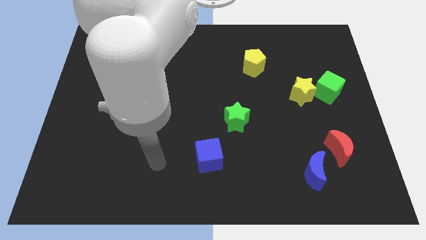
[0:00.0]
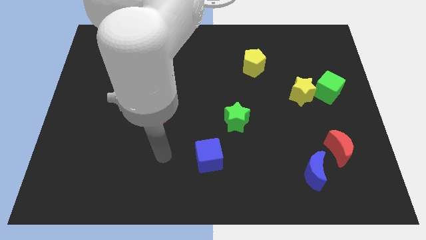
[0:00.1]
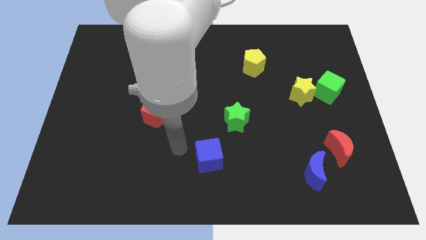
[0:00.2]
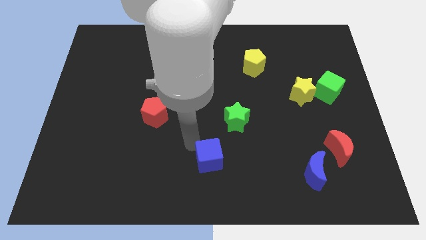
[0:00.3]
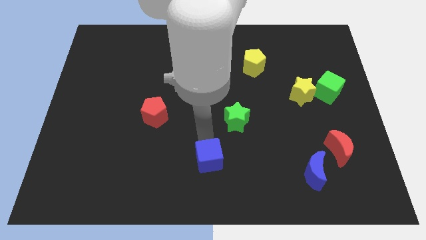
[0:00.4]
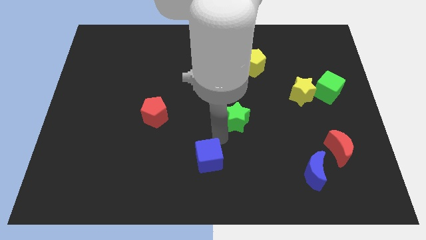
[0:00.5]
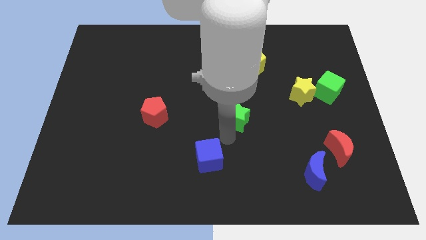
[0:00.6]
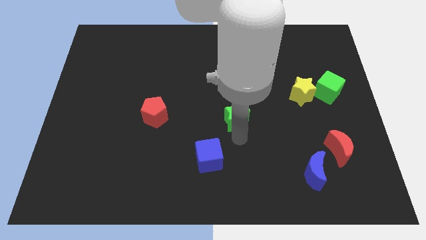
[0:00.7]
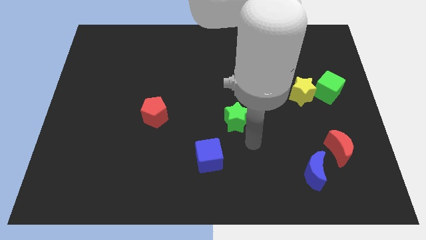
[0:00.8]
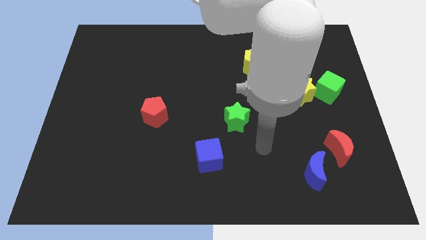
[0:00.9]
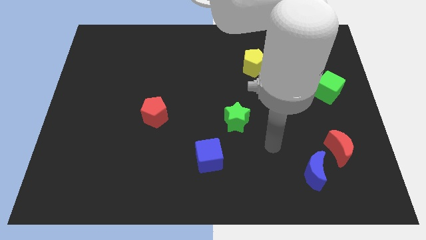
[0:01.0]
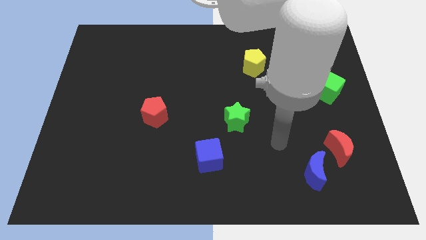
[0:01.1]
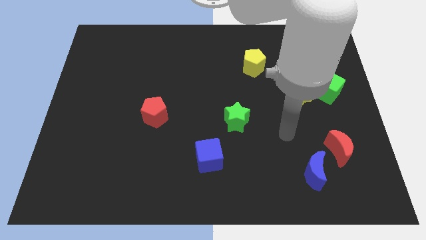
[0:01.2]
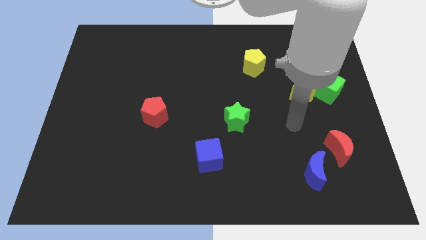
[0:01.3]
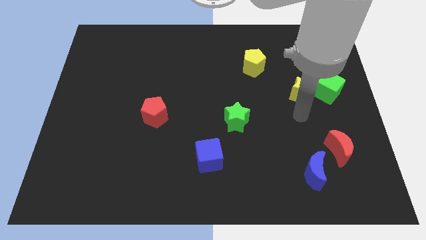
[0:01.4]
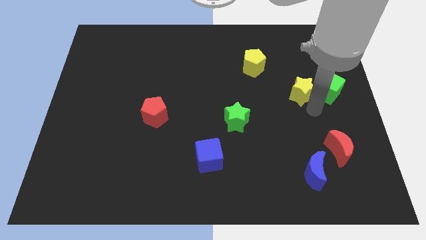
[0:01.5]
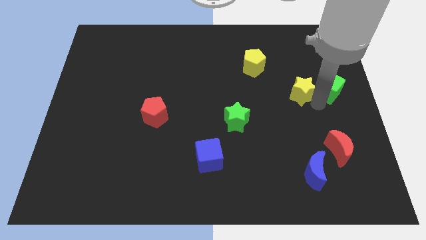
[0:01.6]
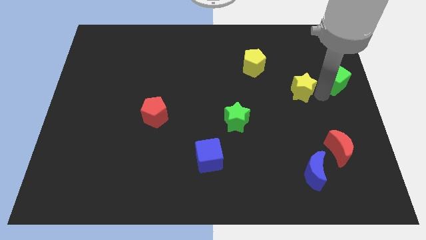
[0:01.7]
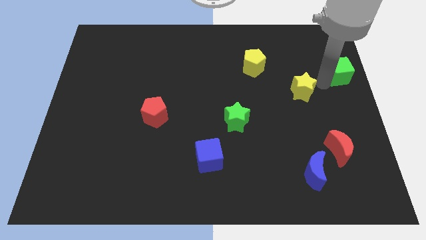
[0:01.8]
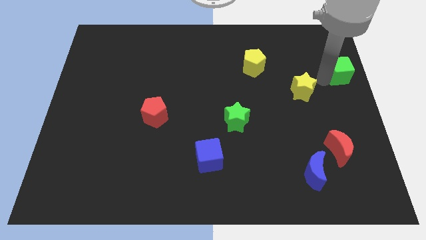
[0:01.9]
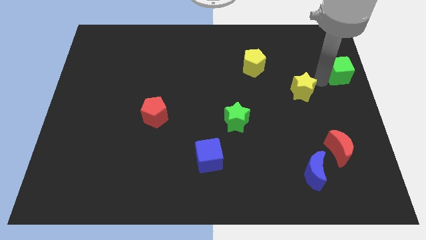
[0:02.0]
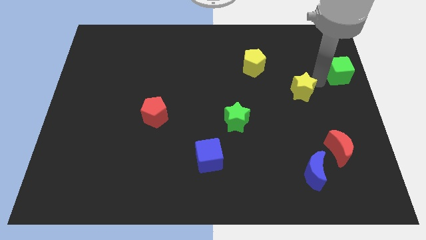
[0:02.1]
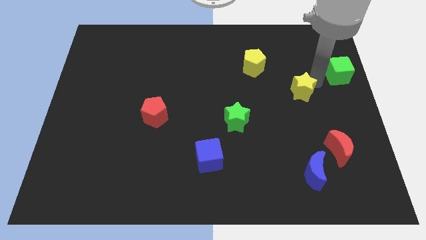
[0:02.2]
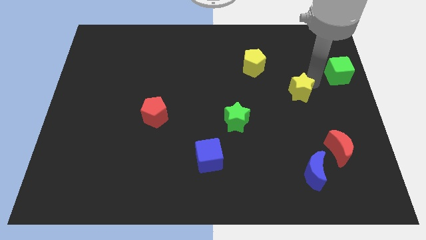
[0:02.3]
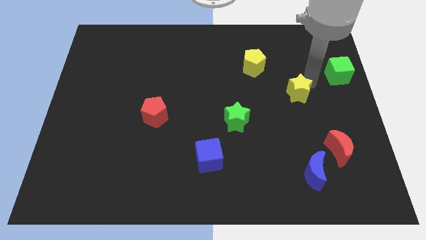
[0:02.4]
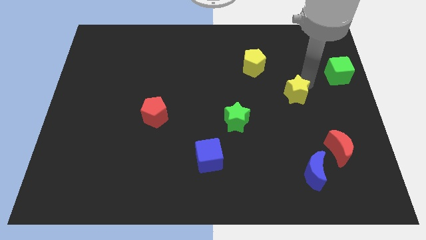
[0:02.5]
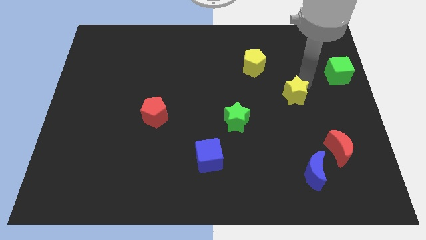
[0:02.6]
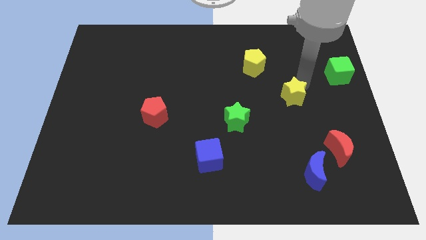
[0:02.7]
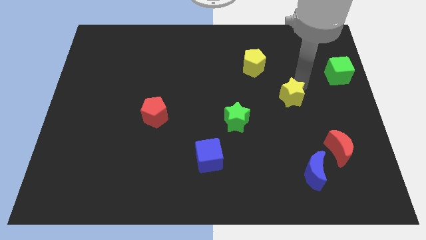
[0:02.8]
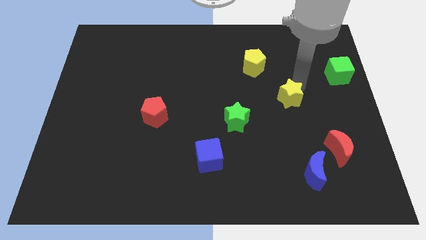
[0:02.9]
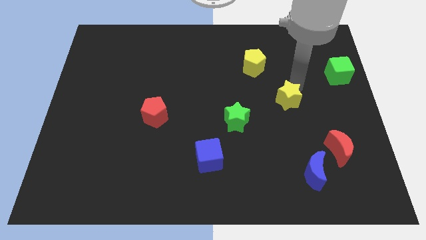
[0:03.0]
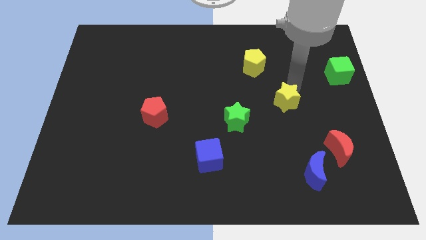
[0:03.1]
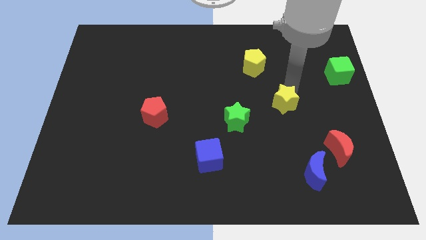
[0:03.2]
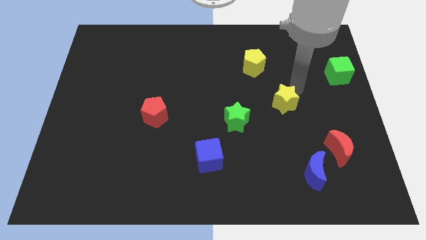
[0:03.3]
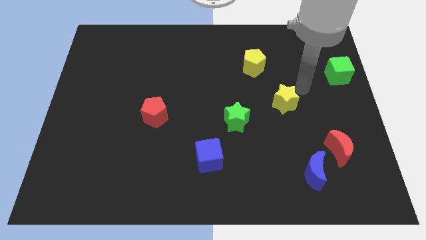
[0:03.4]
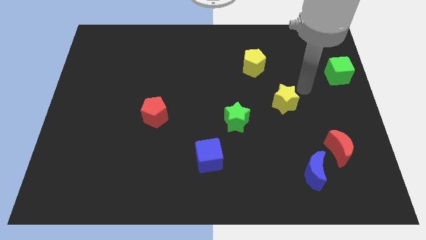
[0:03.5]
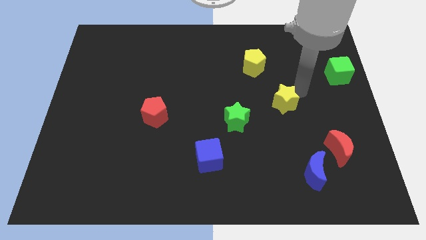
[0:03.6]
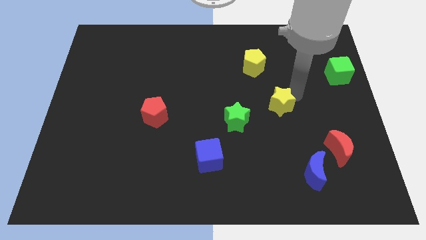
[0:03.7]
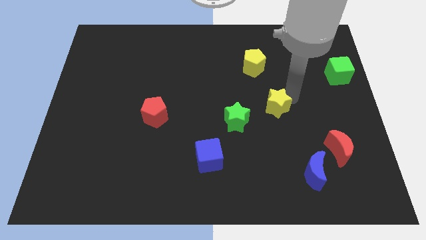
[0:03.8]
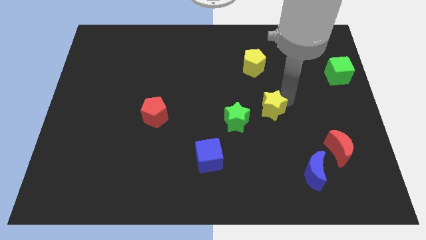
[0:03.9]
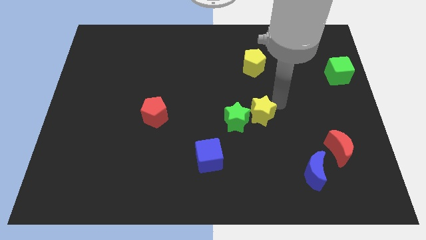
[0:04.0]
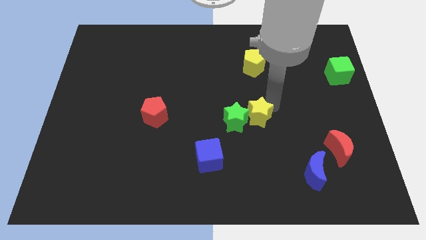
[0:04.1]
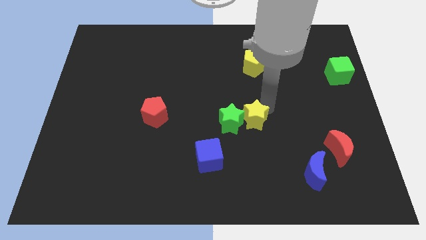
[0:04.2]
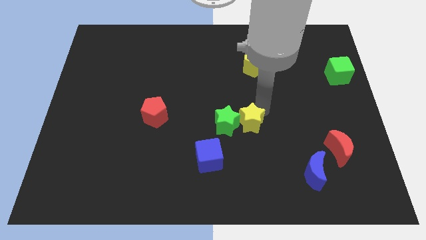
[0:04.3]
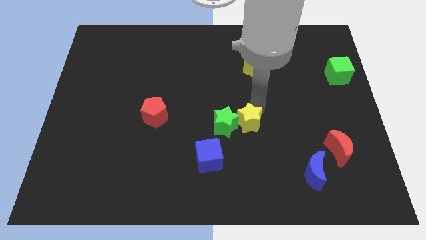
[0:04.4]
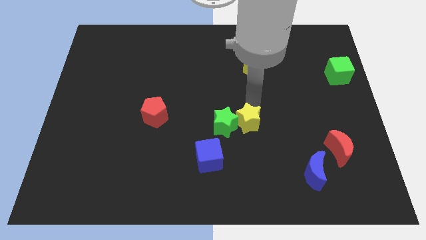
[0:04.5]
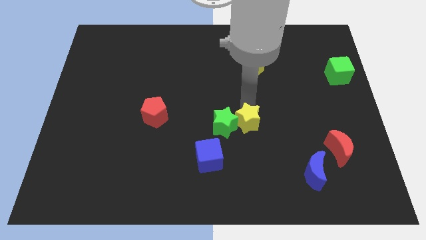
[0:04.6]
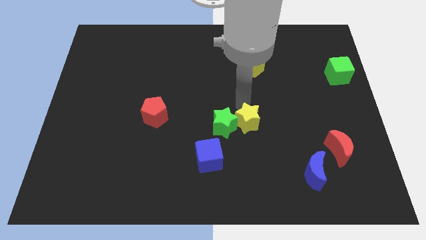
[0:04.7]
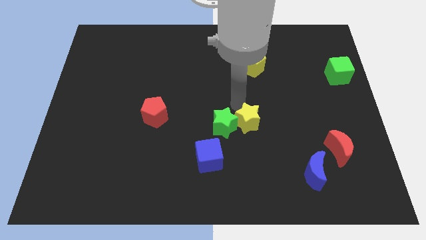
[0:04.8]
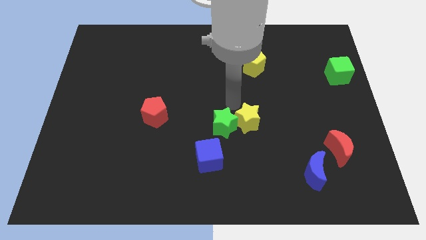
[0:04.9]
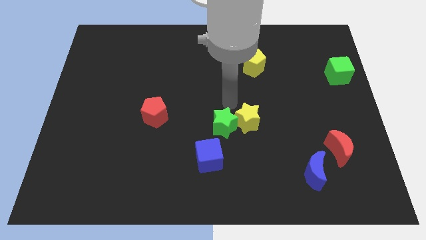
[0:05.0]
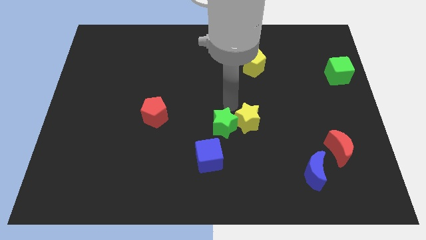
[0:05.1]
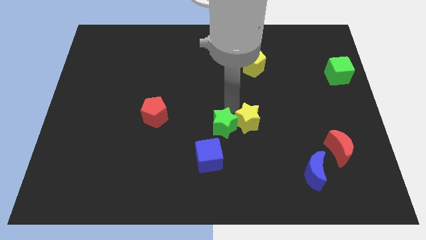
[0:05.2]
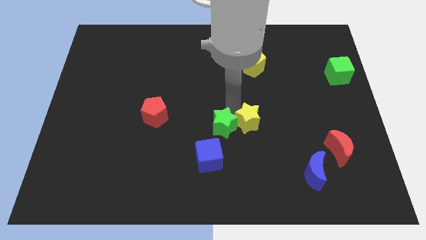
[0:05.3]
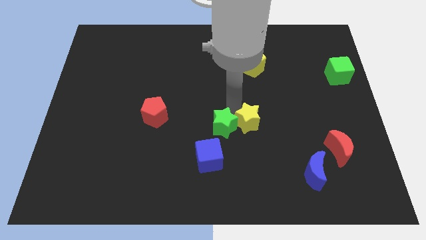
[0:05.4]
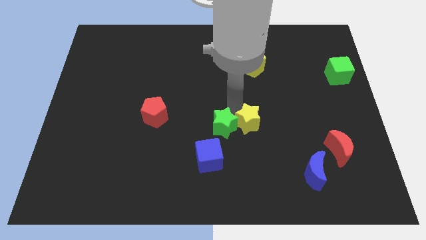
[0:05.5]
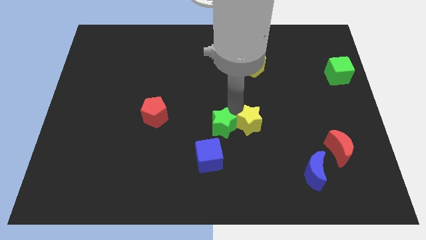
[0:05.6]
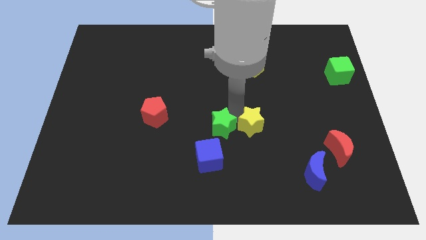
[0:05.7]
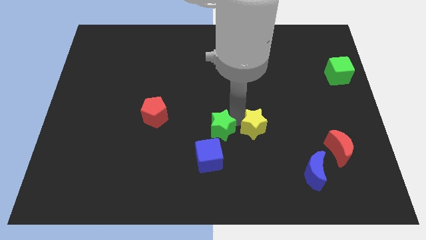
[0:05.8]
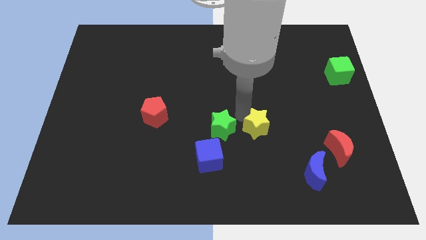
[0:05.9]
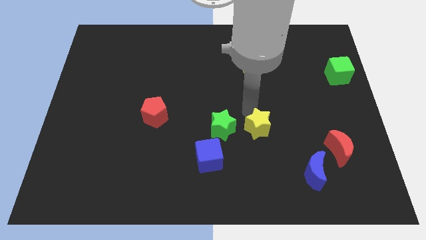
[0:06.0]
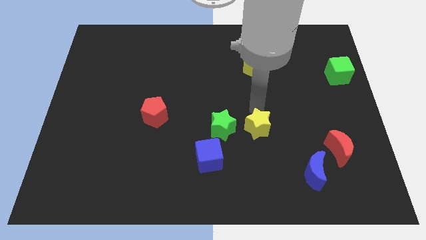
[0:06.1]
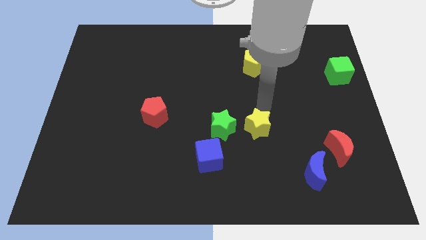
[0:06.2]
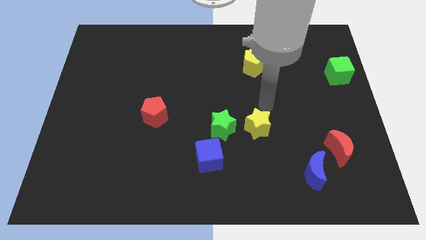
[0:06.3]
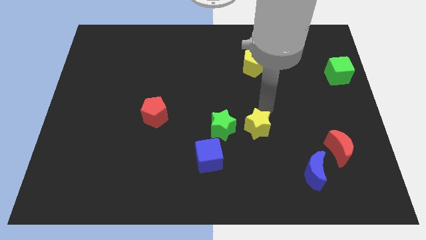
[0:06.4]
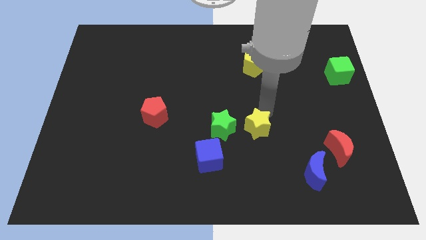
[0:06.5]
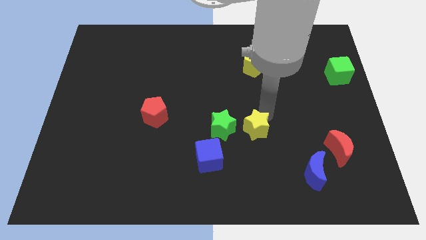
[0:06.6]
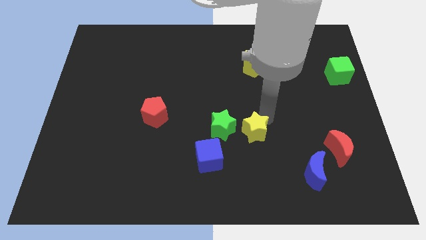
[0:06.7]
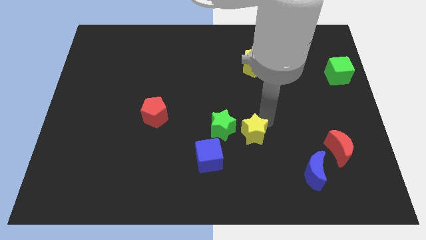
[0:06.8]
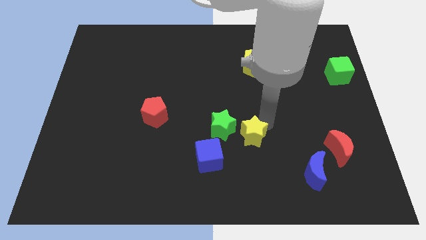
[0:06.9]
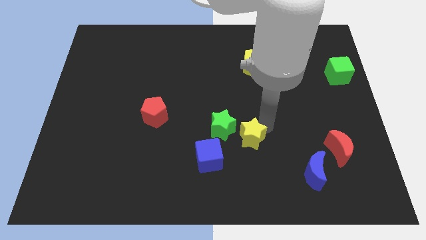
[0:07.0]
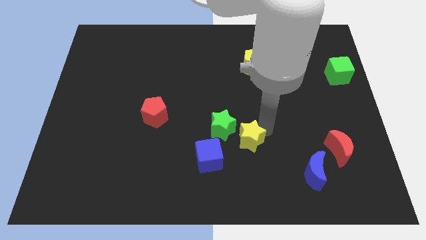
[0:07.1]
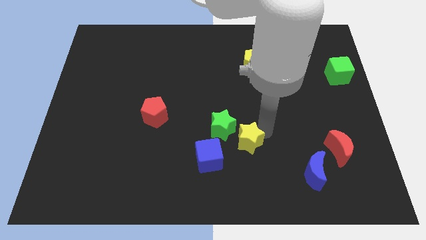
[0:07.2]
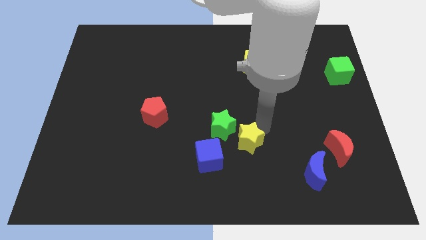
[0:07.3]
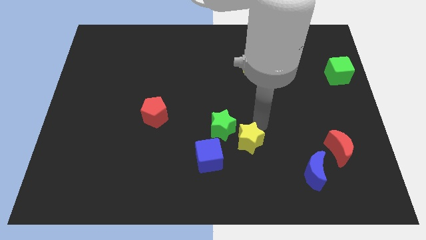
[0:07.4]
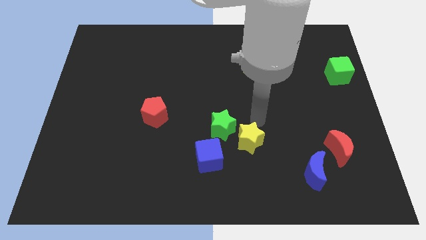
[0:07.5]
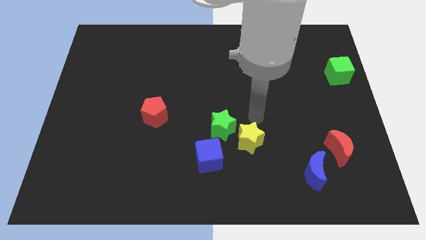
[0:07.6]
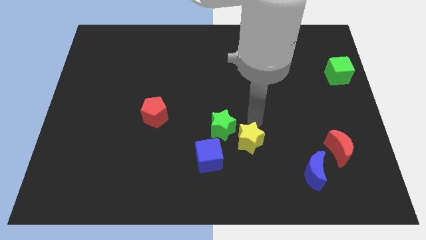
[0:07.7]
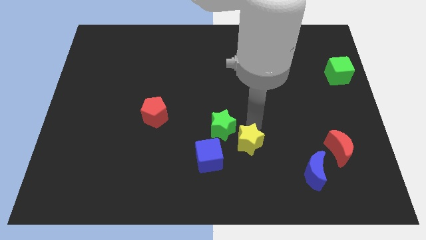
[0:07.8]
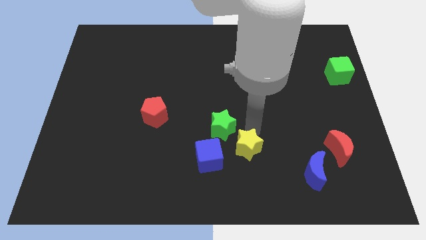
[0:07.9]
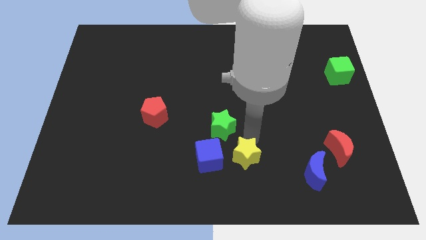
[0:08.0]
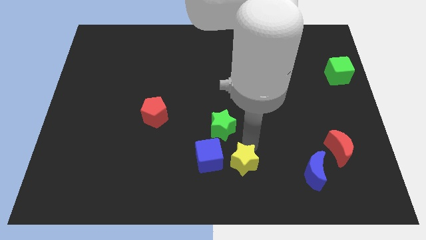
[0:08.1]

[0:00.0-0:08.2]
put the yellow star to the bottom
